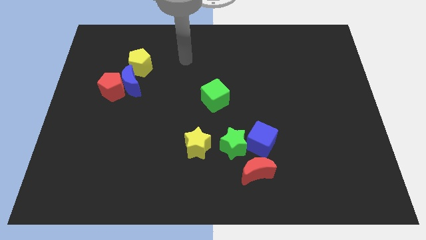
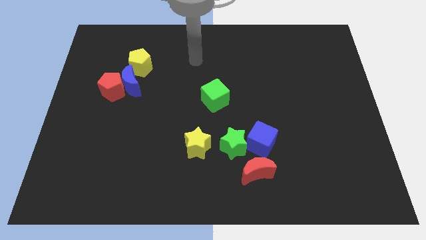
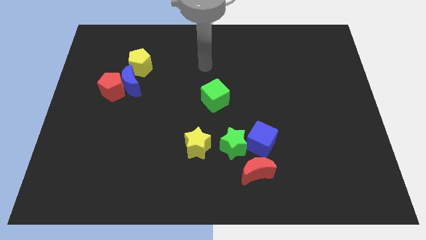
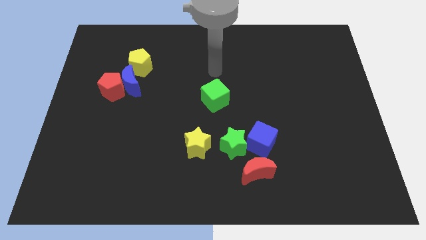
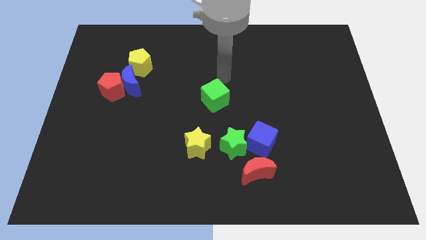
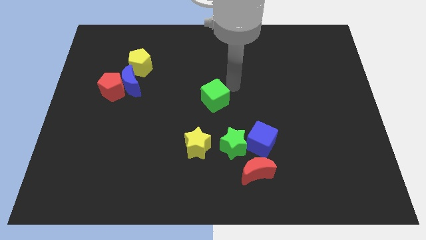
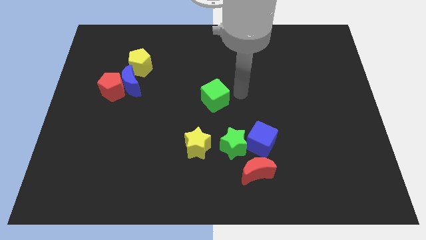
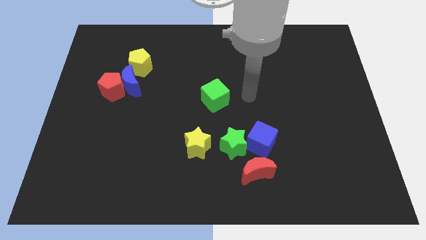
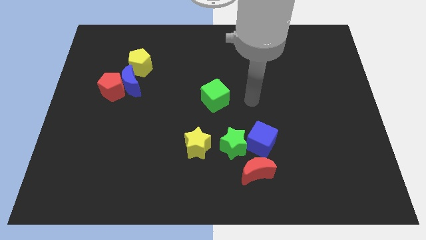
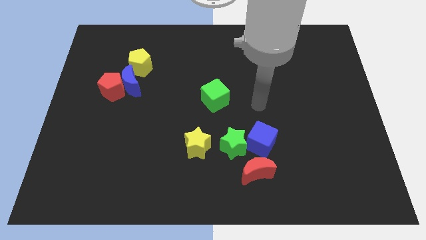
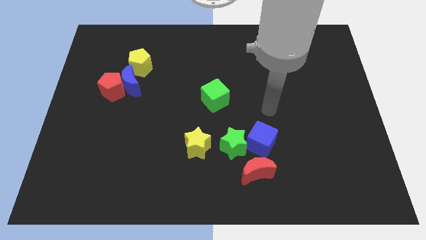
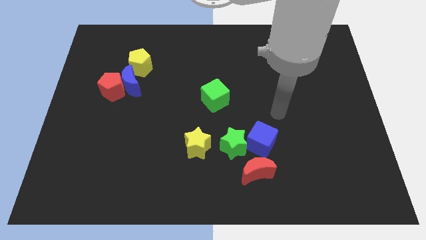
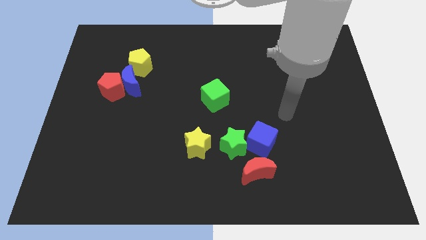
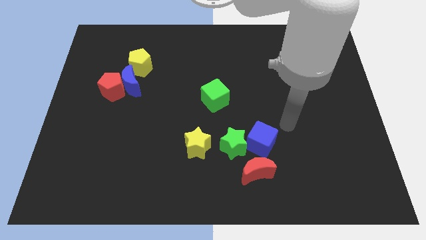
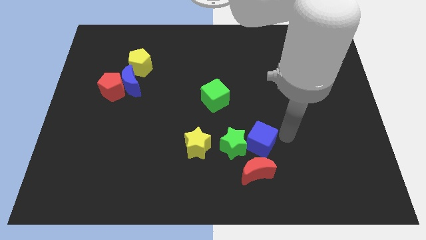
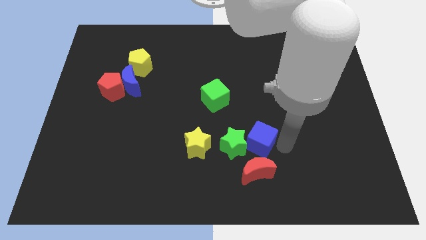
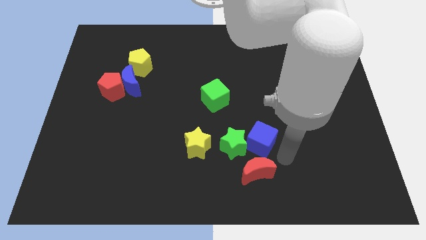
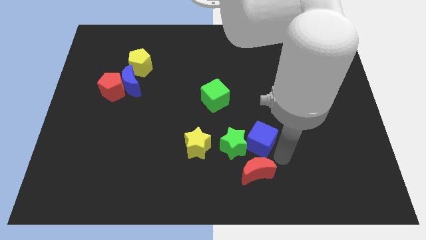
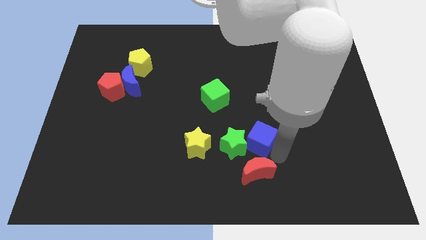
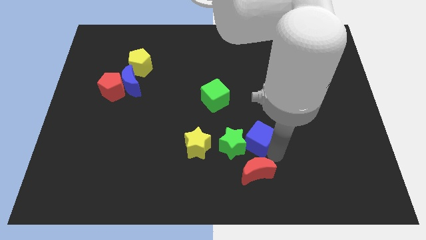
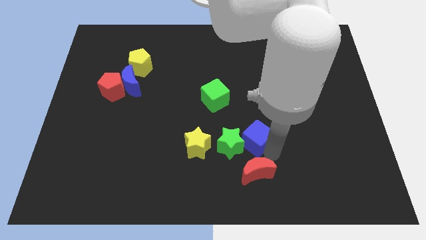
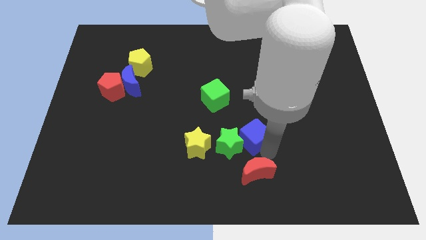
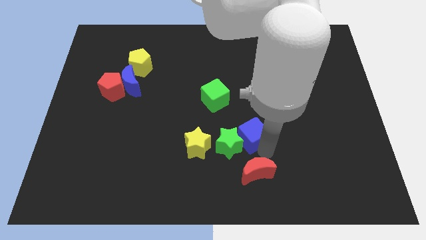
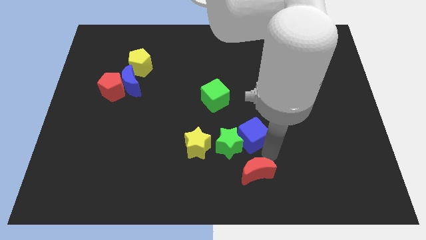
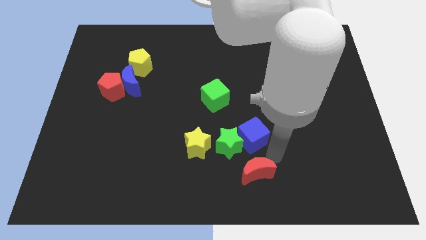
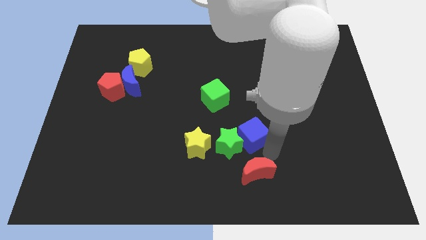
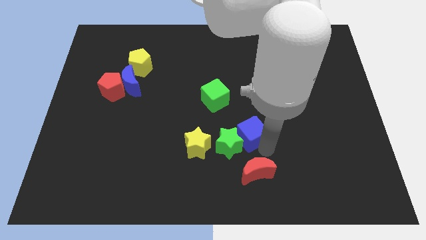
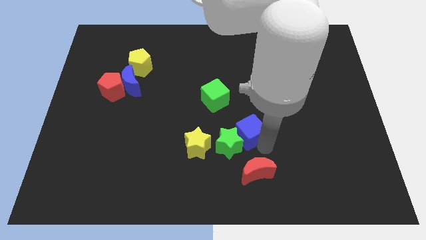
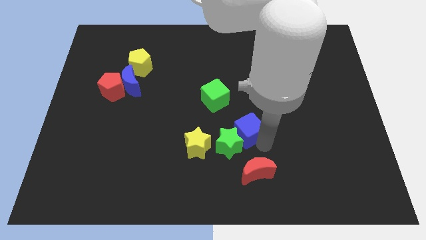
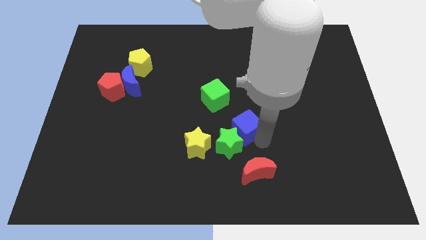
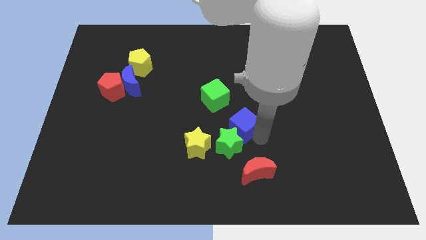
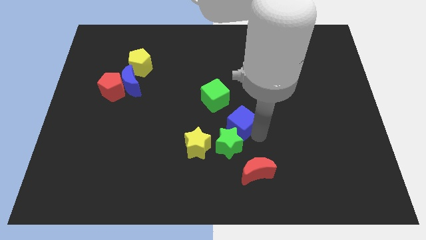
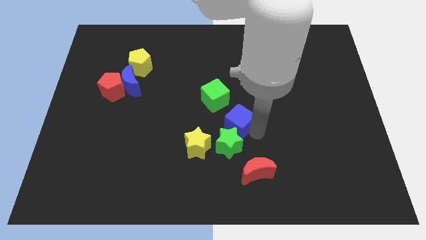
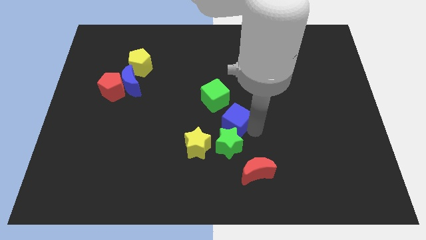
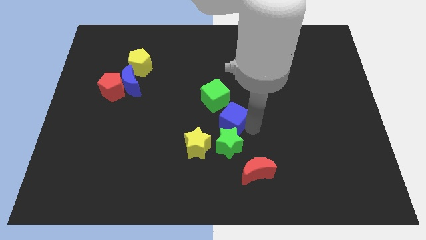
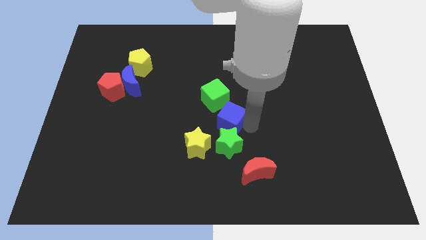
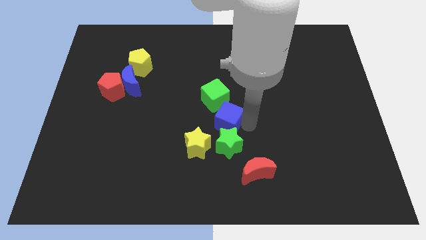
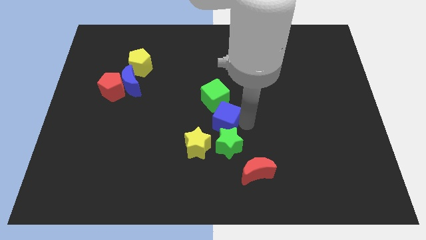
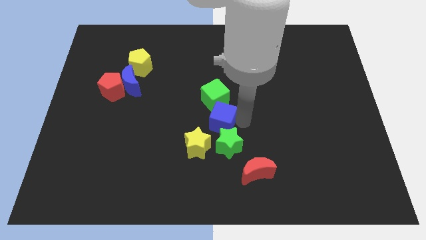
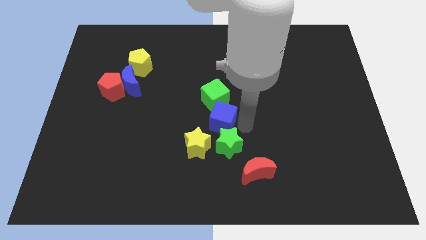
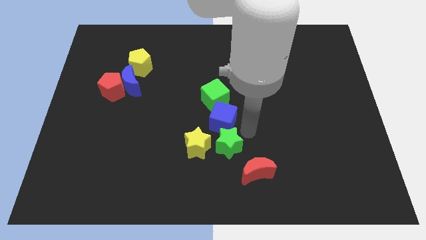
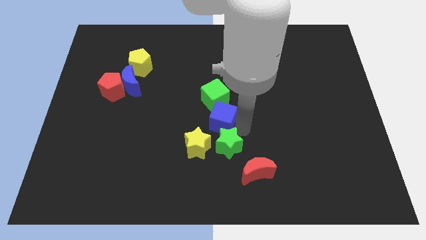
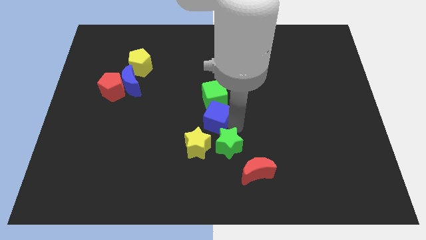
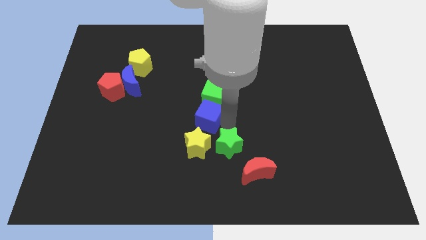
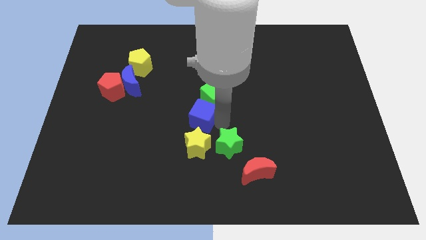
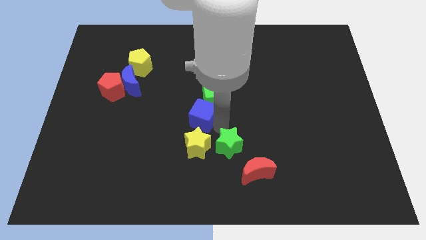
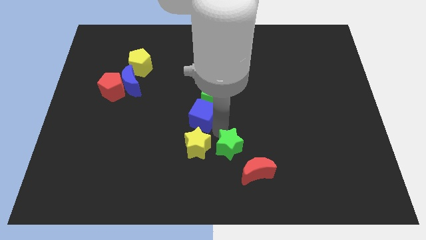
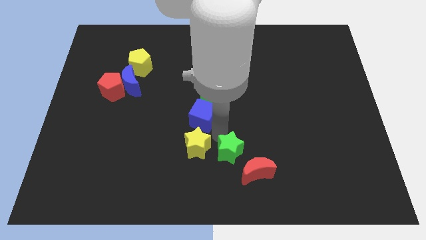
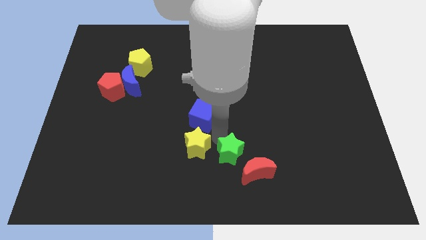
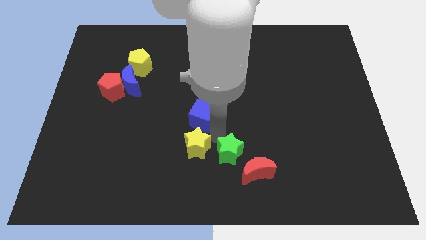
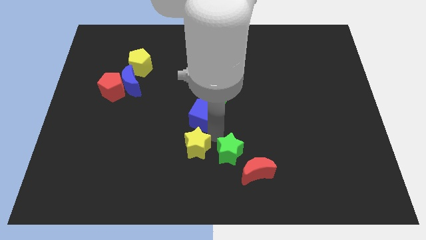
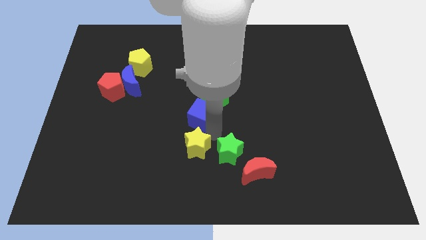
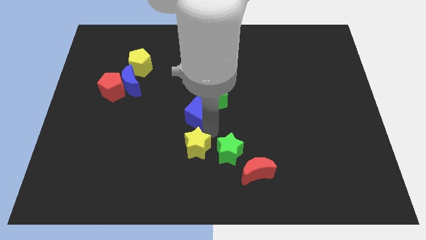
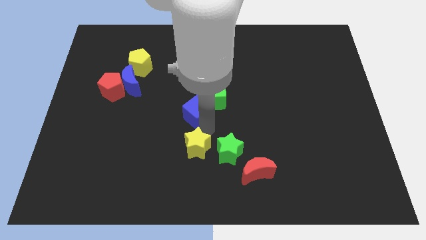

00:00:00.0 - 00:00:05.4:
slide the blue cube to the left side of the green cube

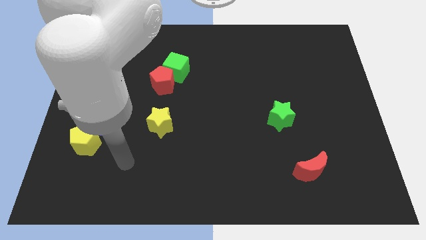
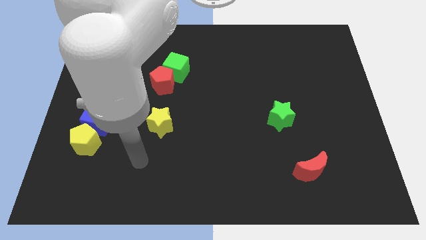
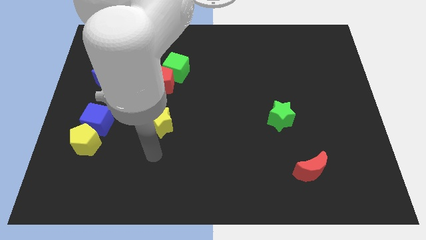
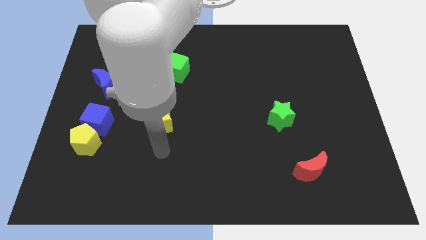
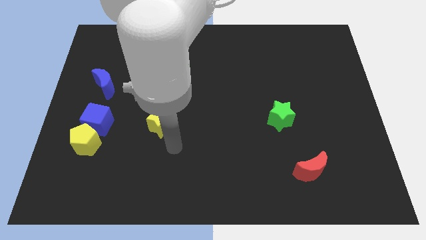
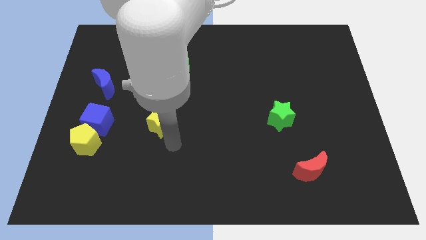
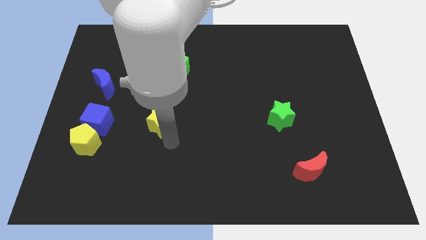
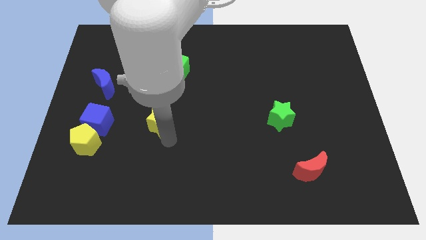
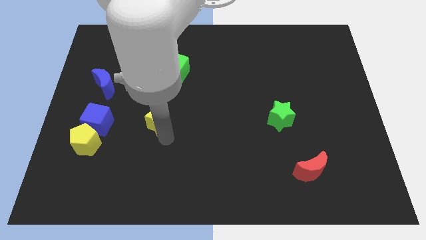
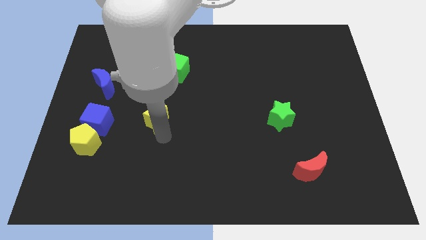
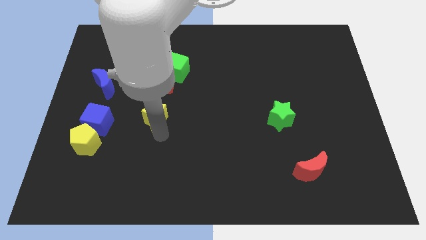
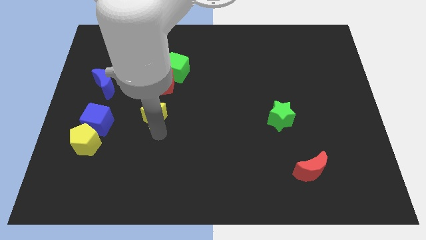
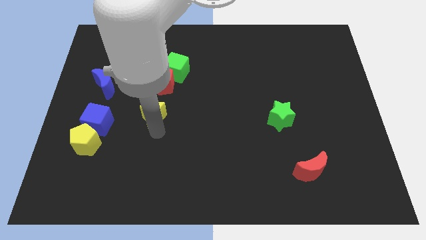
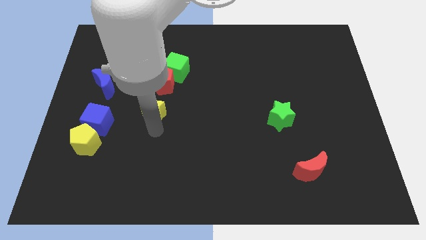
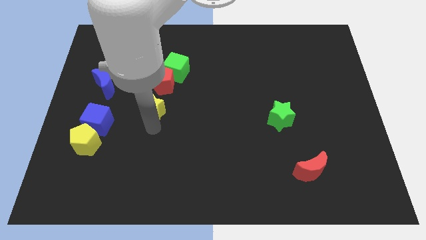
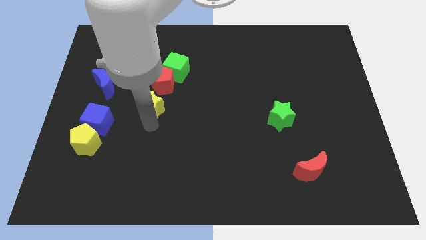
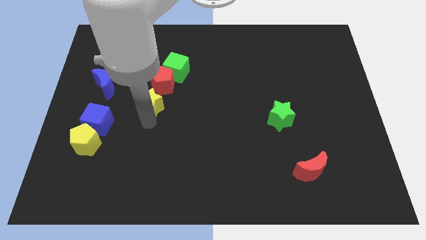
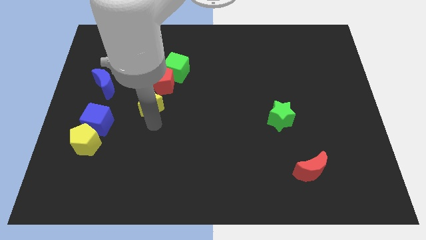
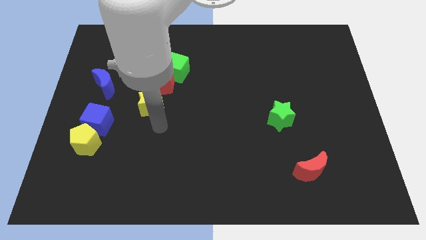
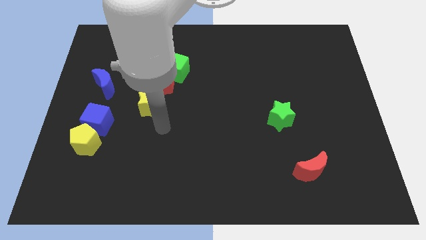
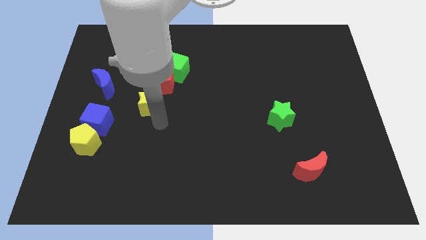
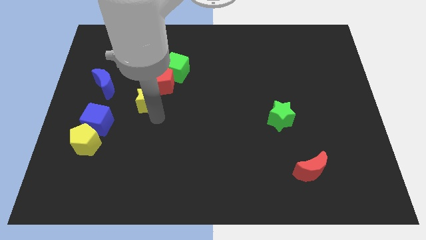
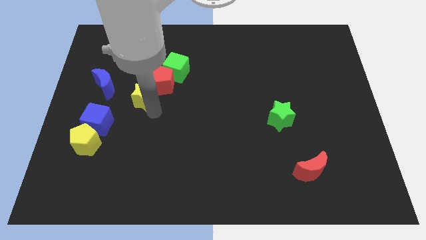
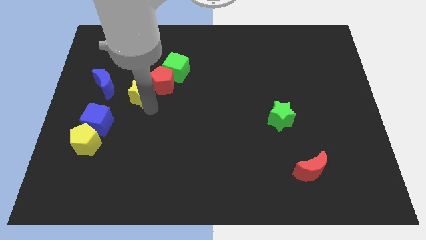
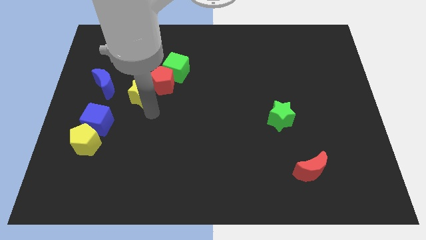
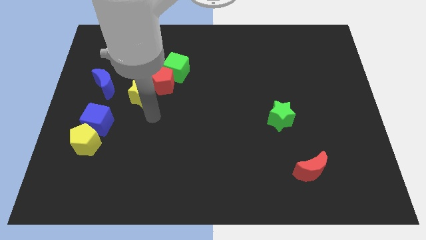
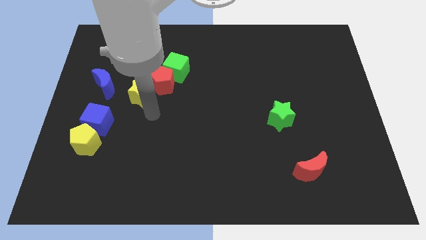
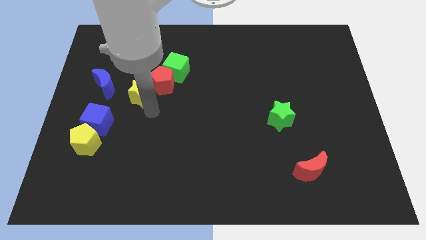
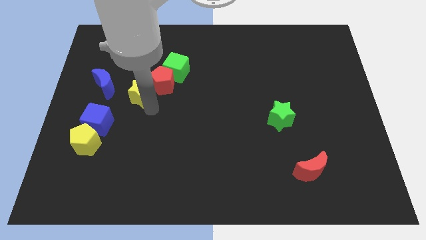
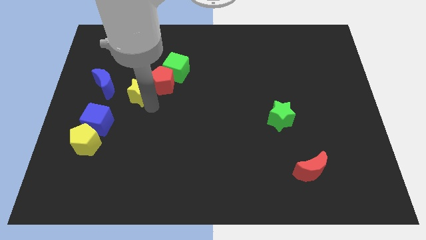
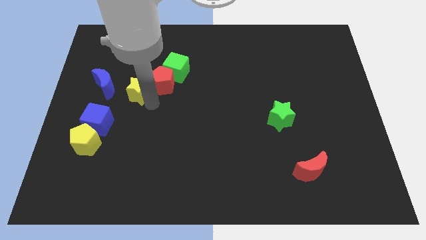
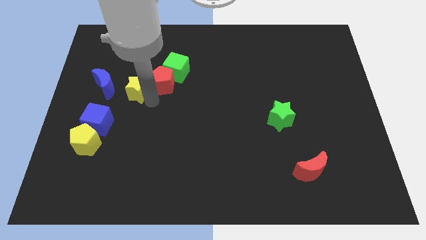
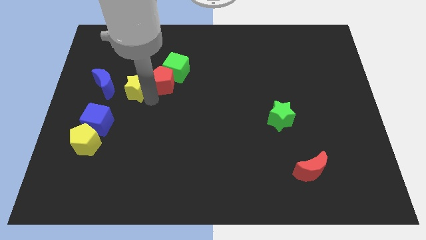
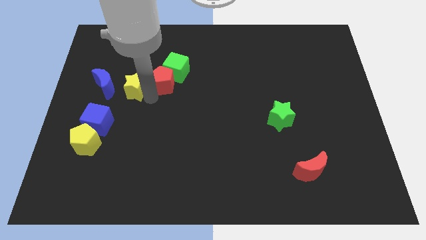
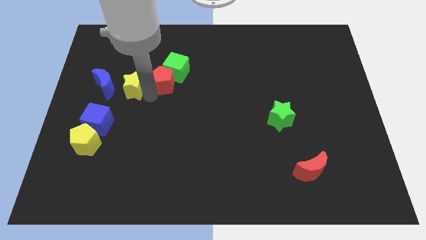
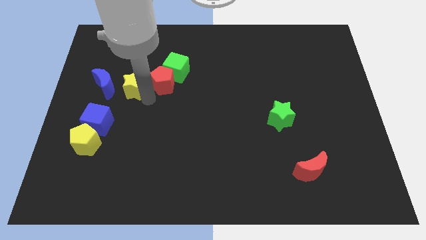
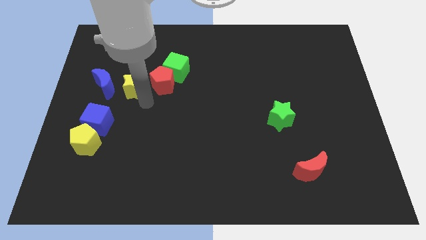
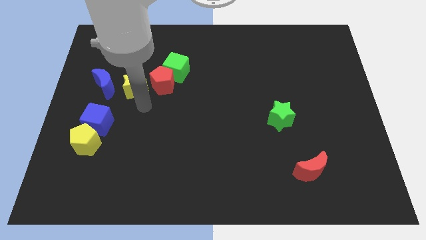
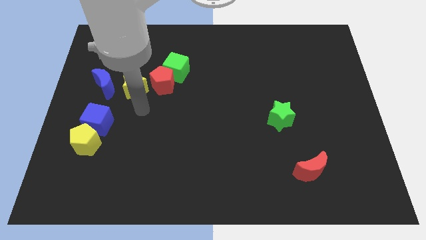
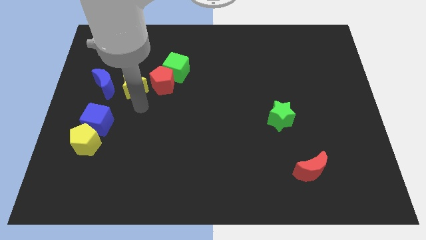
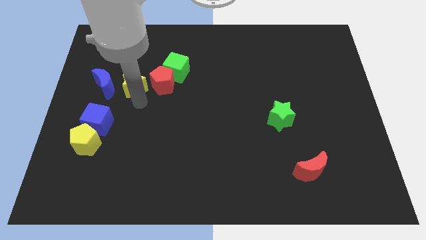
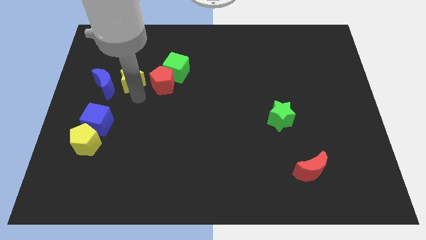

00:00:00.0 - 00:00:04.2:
put the yellow star to the top right of the blue moon
